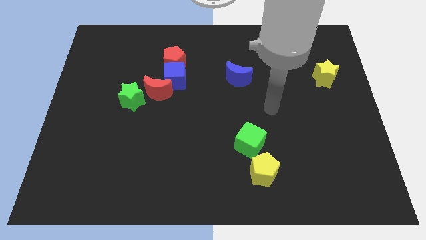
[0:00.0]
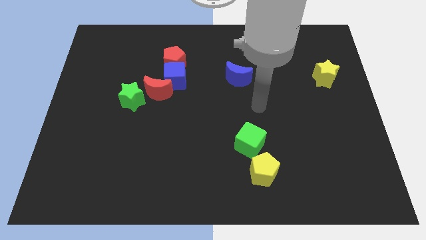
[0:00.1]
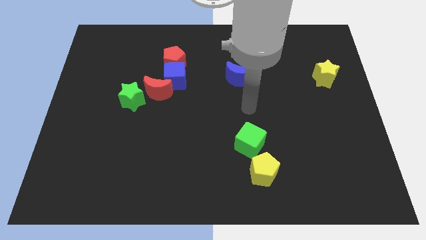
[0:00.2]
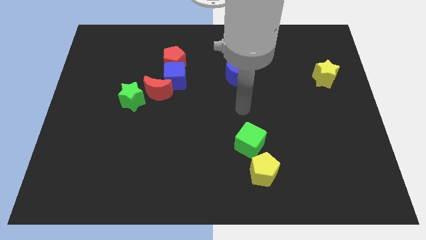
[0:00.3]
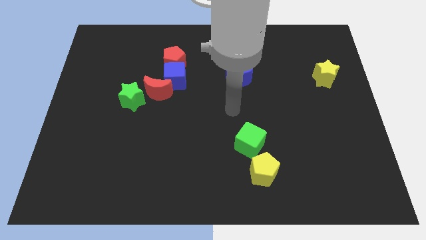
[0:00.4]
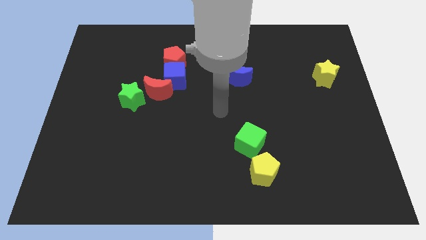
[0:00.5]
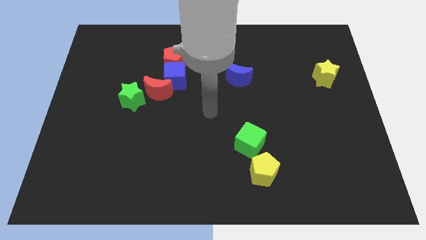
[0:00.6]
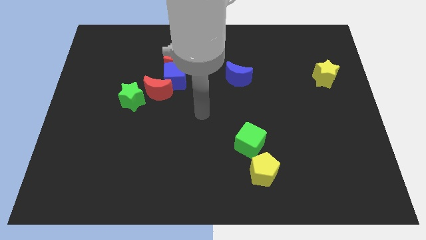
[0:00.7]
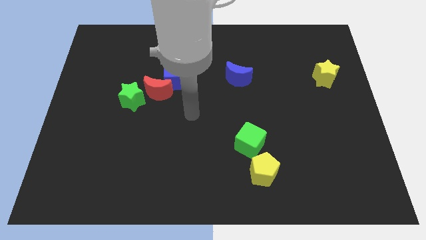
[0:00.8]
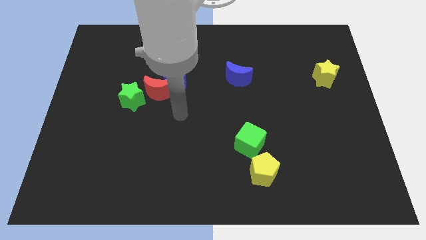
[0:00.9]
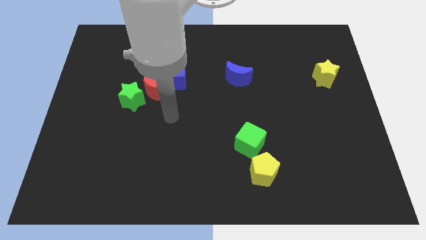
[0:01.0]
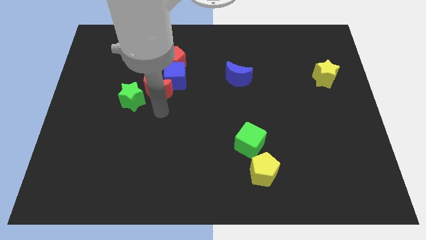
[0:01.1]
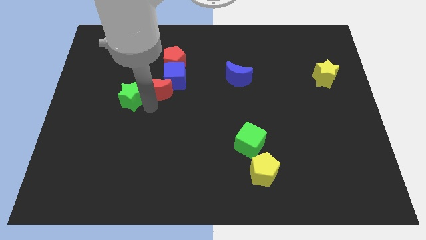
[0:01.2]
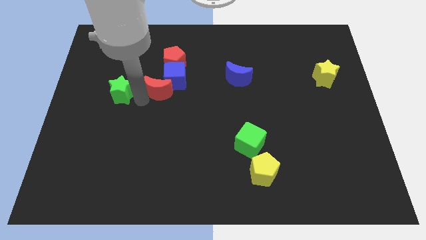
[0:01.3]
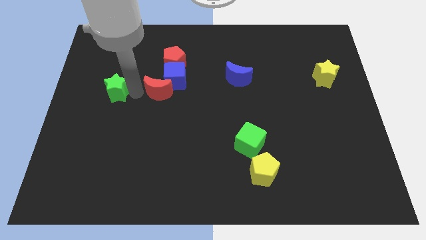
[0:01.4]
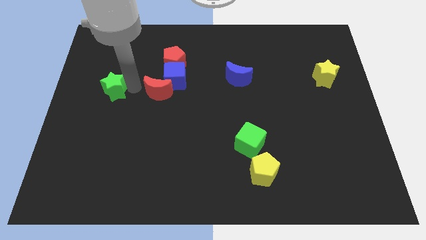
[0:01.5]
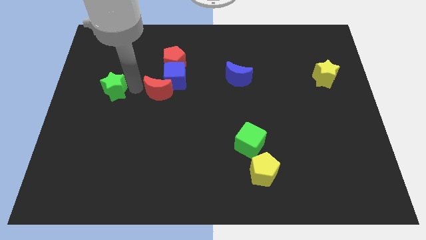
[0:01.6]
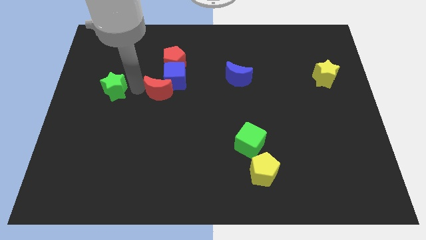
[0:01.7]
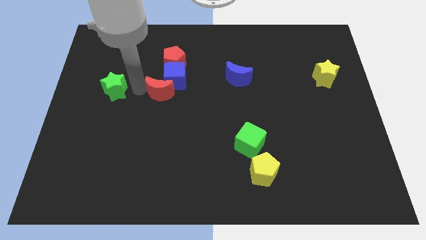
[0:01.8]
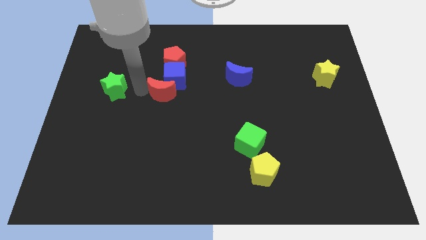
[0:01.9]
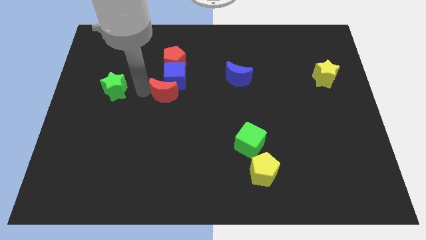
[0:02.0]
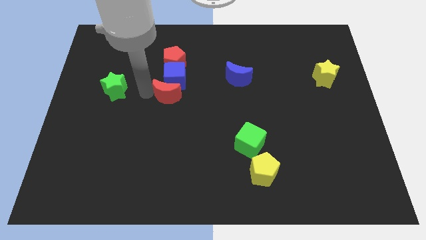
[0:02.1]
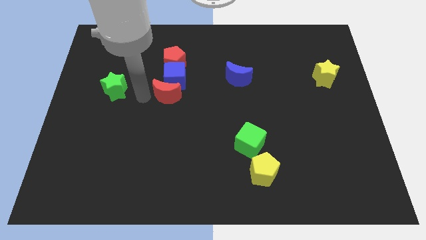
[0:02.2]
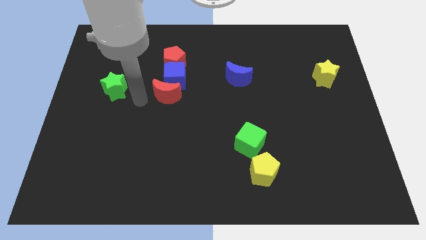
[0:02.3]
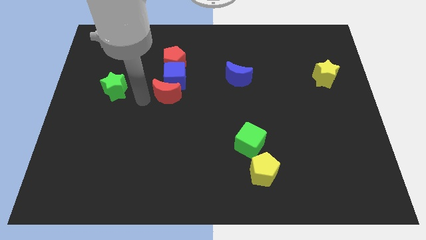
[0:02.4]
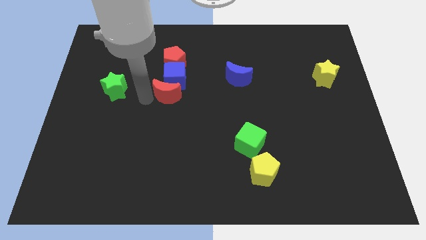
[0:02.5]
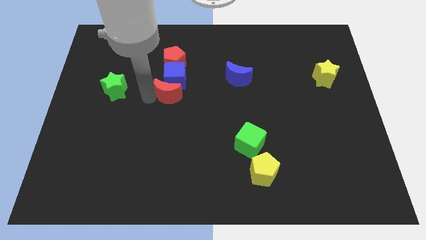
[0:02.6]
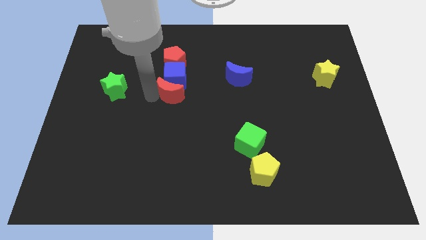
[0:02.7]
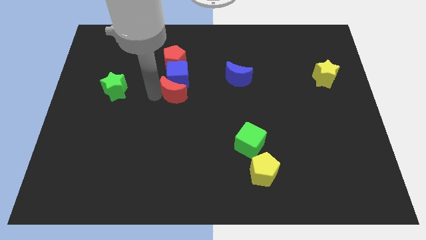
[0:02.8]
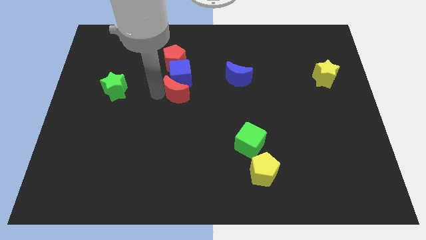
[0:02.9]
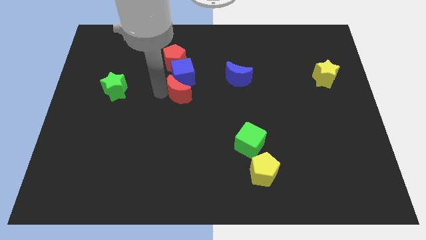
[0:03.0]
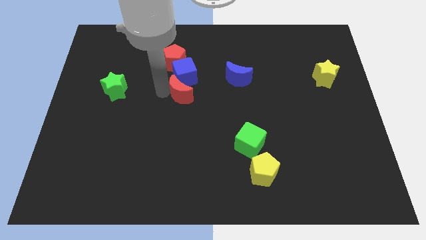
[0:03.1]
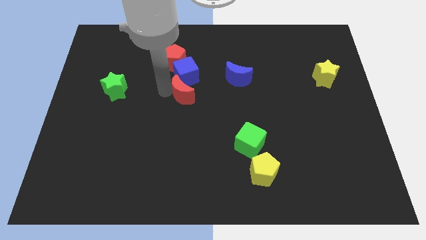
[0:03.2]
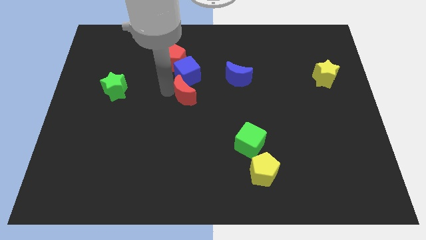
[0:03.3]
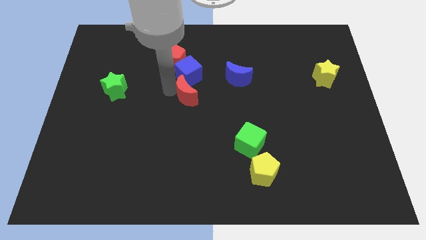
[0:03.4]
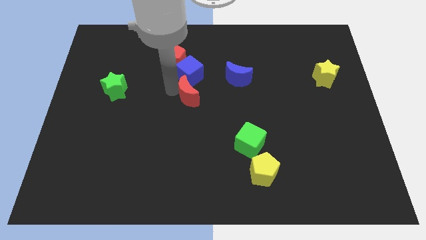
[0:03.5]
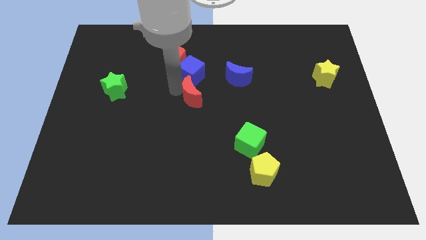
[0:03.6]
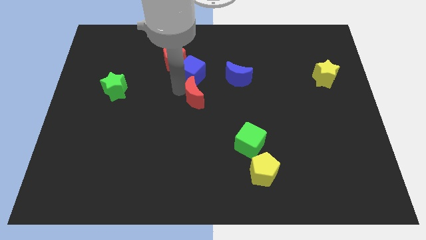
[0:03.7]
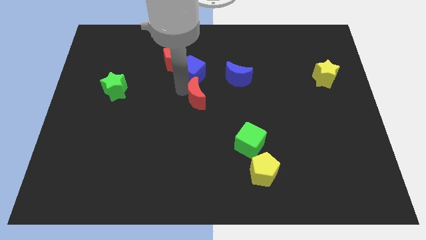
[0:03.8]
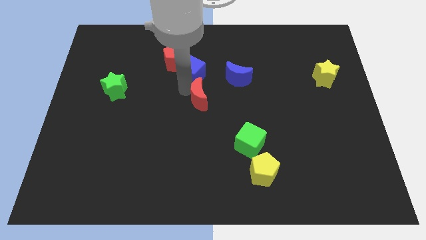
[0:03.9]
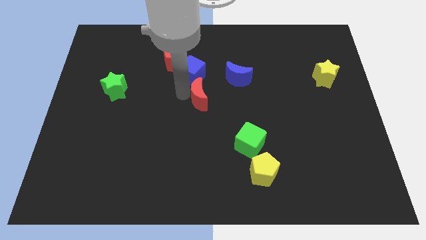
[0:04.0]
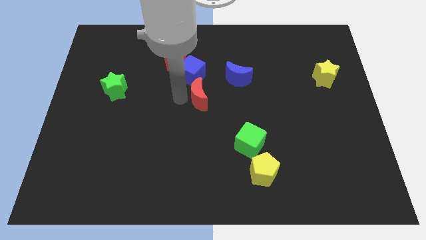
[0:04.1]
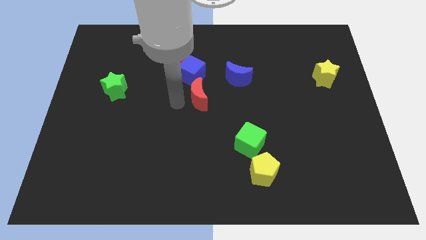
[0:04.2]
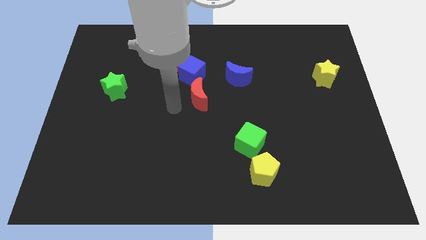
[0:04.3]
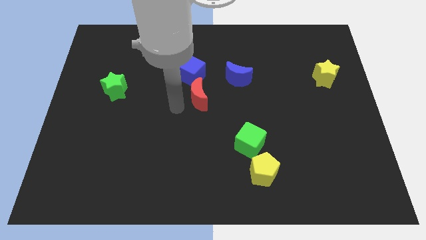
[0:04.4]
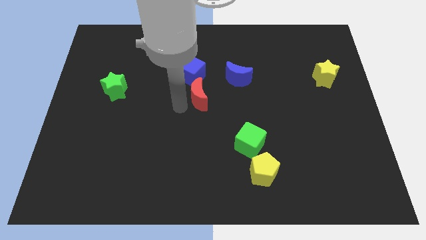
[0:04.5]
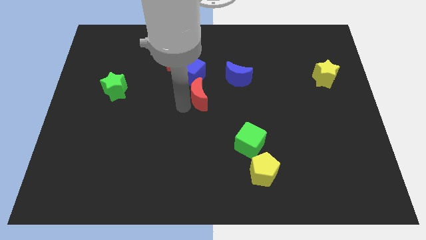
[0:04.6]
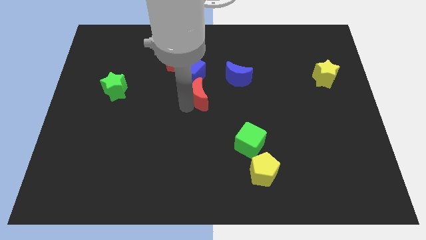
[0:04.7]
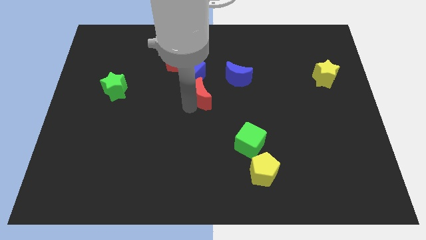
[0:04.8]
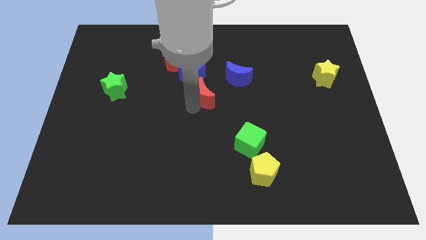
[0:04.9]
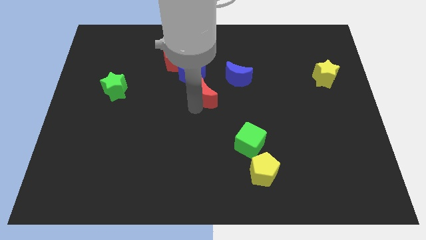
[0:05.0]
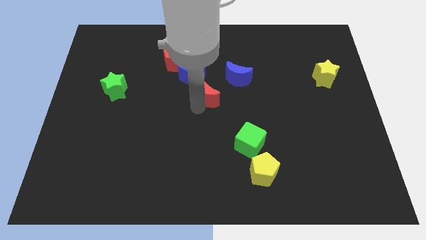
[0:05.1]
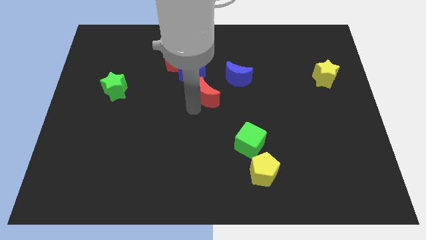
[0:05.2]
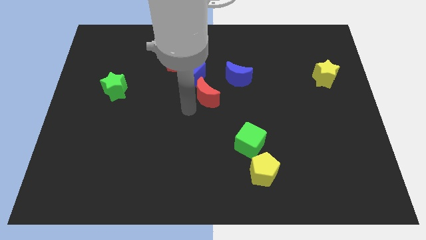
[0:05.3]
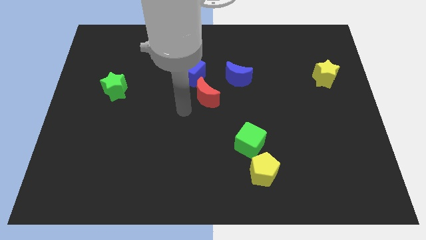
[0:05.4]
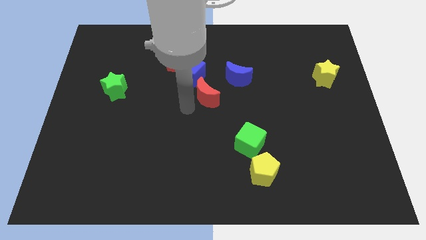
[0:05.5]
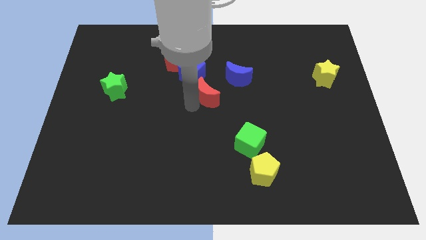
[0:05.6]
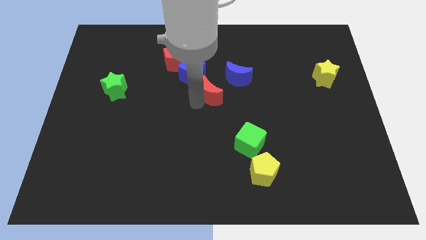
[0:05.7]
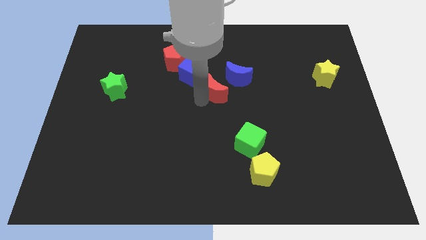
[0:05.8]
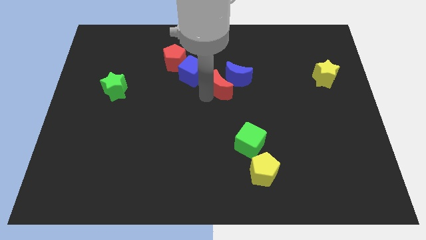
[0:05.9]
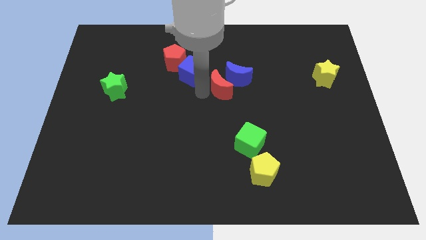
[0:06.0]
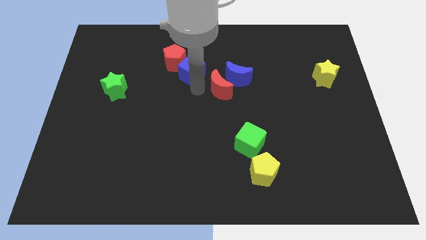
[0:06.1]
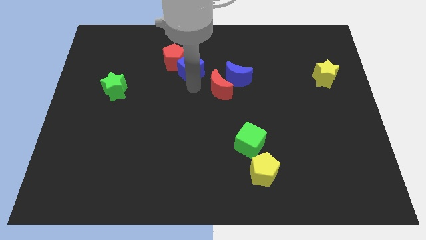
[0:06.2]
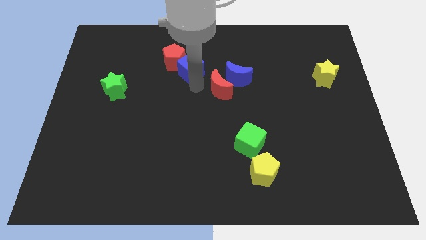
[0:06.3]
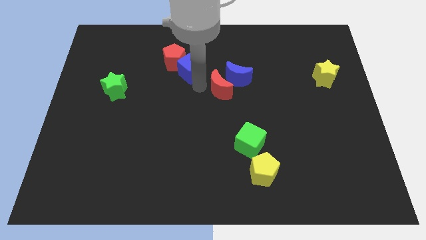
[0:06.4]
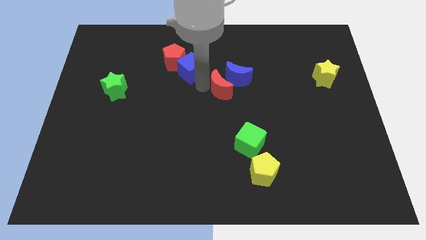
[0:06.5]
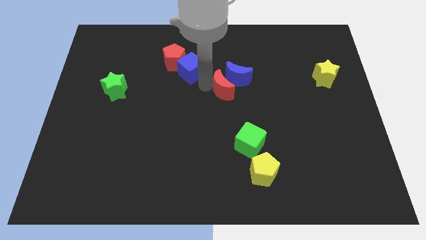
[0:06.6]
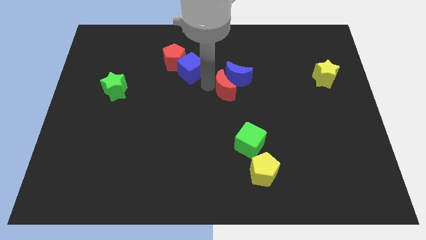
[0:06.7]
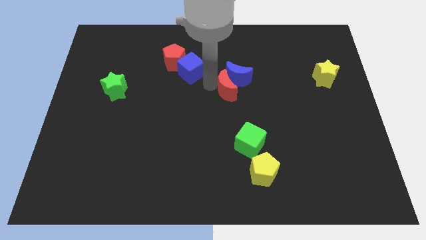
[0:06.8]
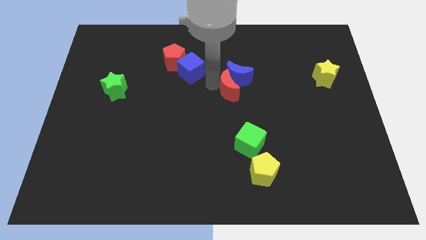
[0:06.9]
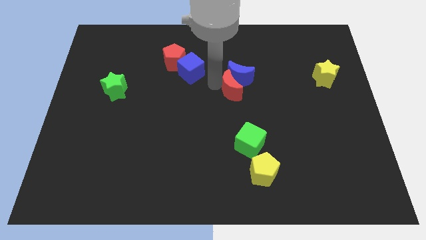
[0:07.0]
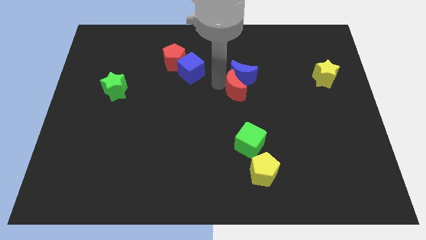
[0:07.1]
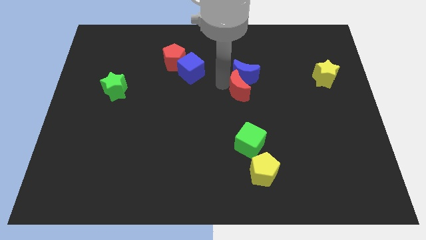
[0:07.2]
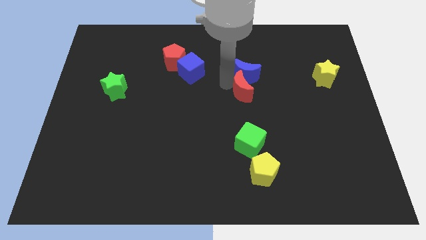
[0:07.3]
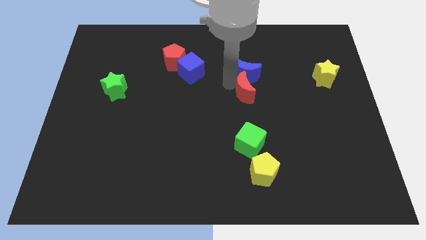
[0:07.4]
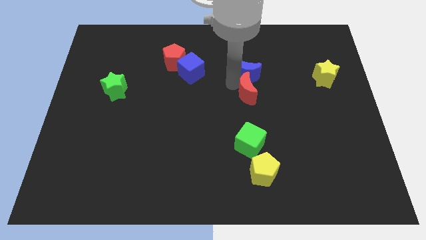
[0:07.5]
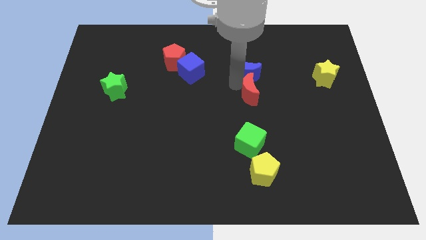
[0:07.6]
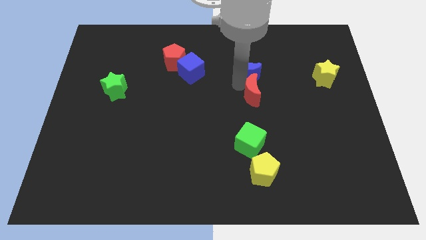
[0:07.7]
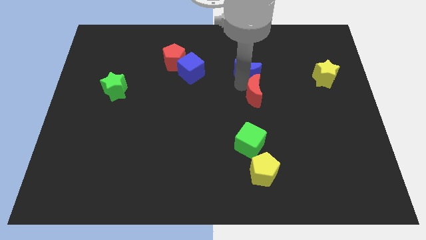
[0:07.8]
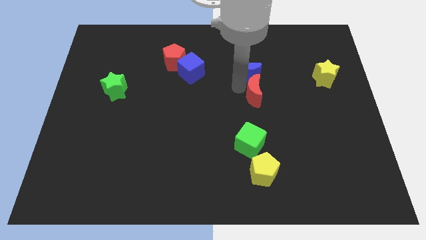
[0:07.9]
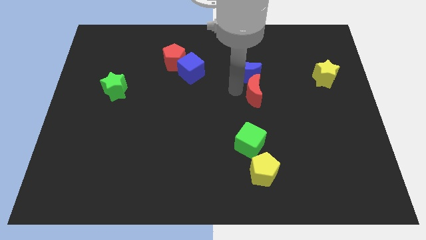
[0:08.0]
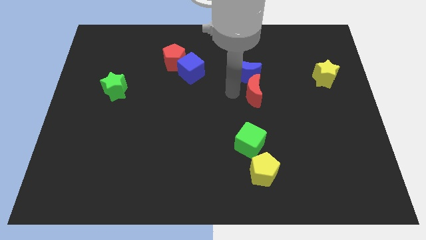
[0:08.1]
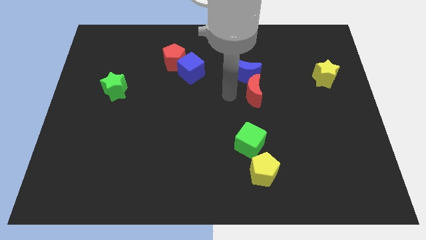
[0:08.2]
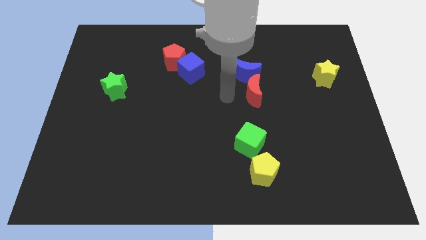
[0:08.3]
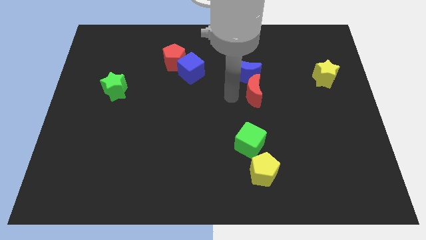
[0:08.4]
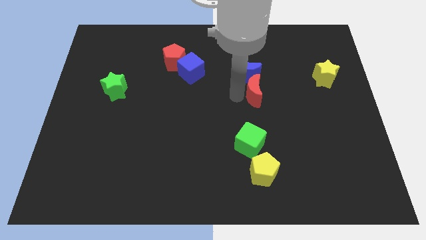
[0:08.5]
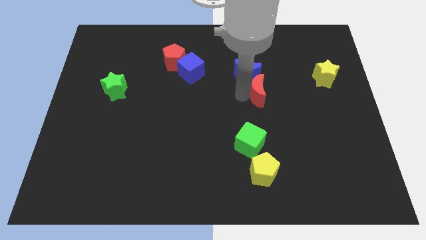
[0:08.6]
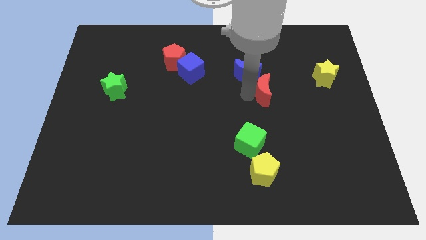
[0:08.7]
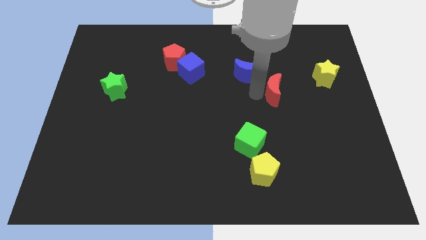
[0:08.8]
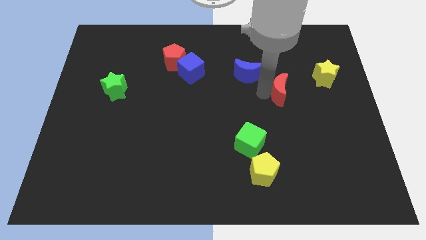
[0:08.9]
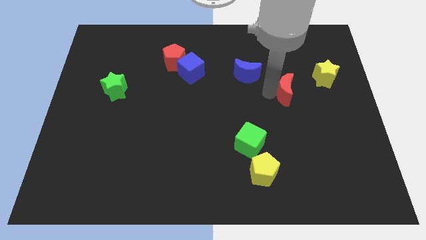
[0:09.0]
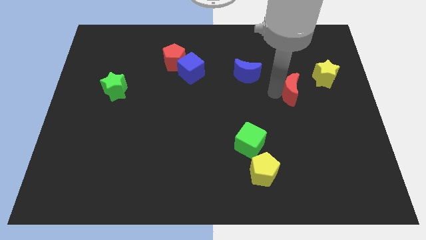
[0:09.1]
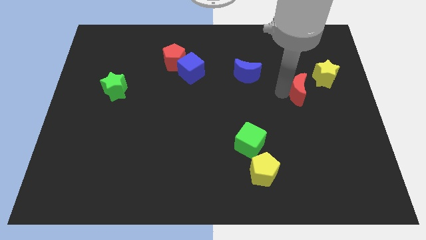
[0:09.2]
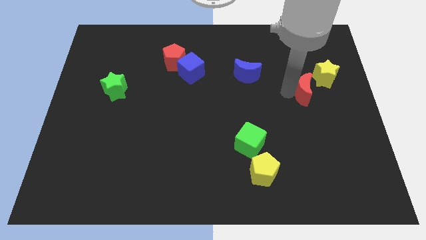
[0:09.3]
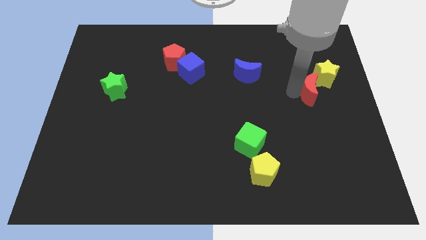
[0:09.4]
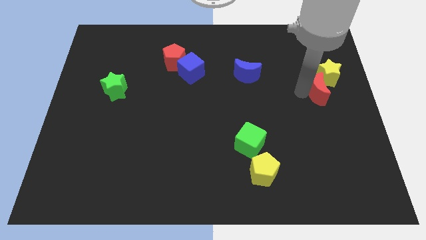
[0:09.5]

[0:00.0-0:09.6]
push the red moon to the right side of the board
